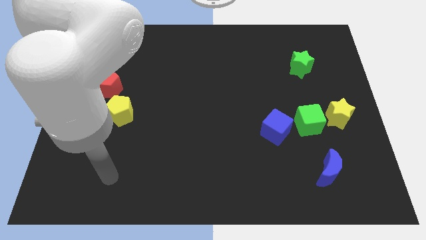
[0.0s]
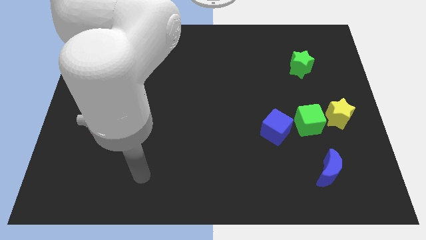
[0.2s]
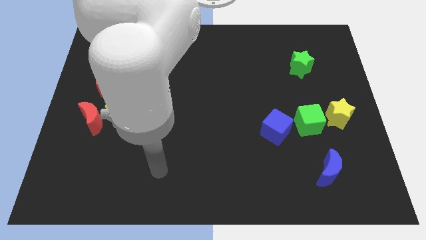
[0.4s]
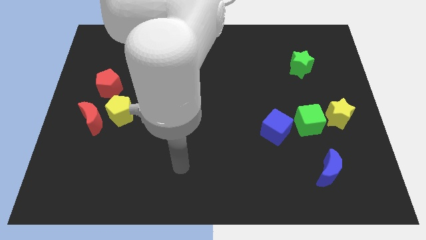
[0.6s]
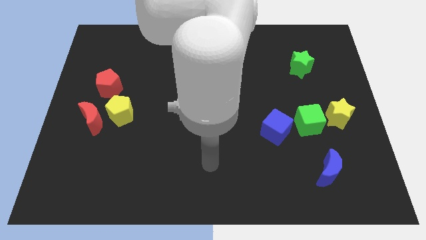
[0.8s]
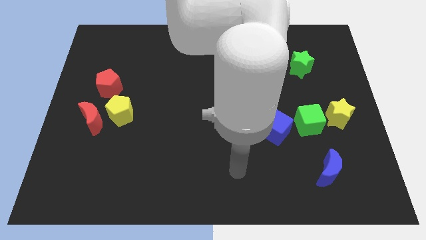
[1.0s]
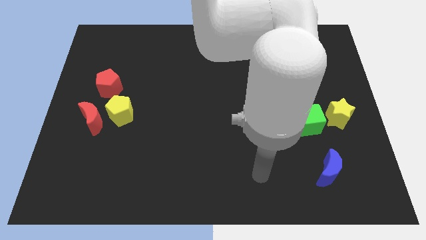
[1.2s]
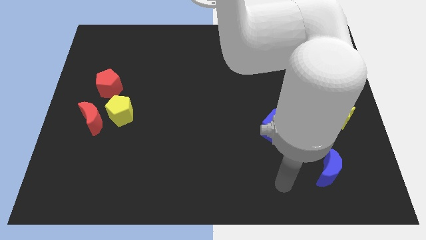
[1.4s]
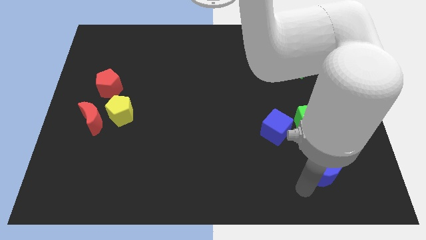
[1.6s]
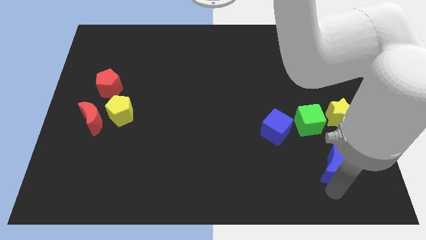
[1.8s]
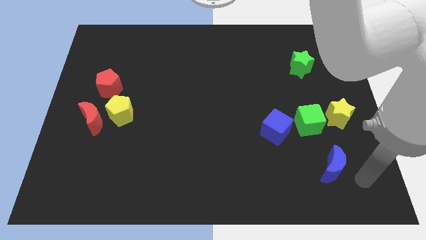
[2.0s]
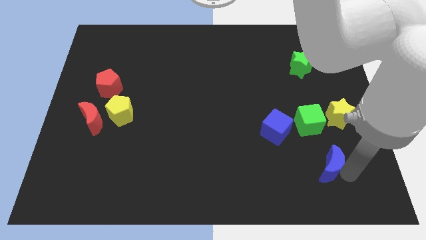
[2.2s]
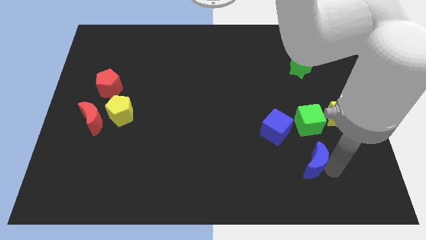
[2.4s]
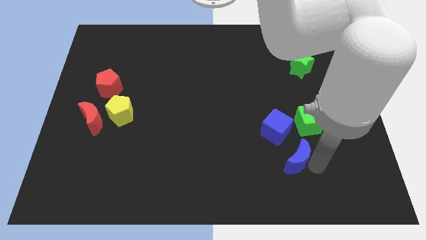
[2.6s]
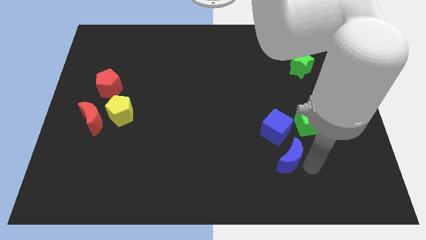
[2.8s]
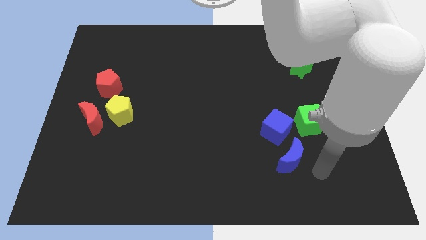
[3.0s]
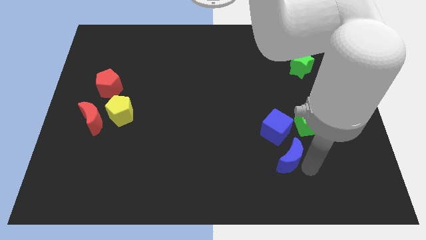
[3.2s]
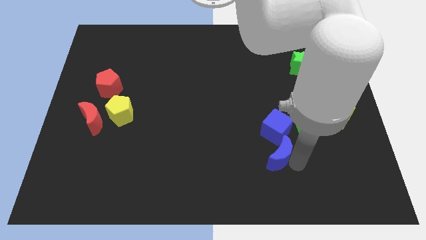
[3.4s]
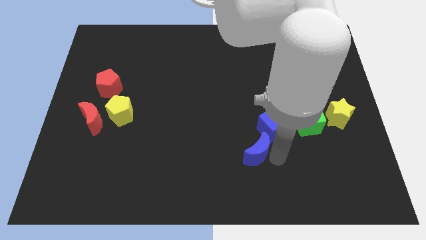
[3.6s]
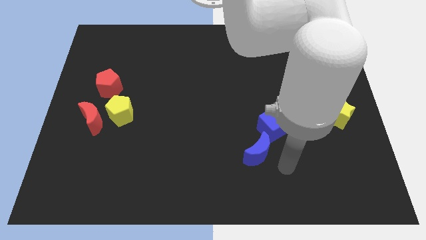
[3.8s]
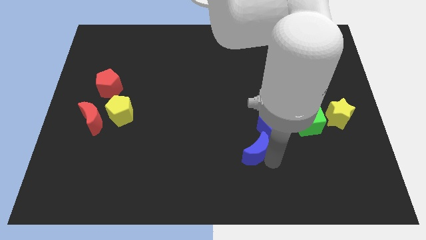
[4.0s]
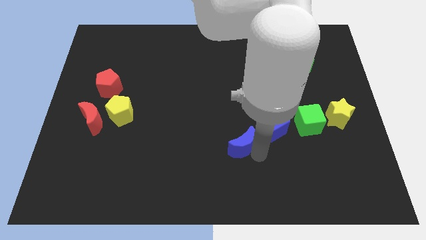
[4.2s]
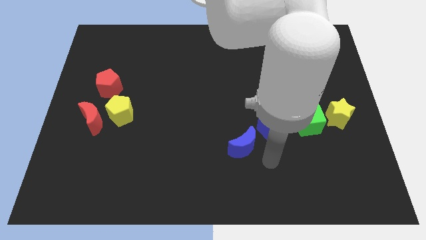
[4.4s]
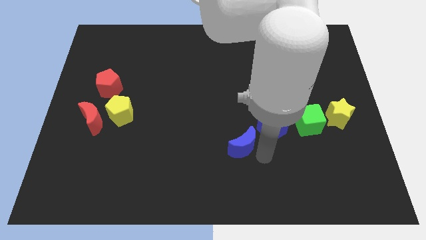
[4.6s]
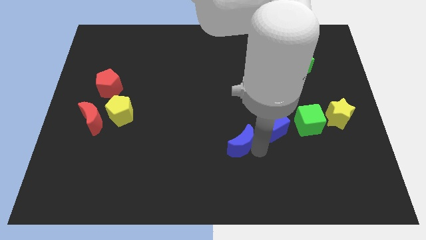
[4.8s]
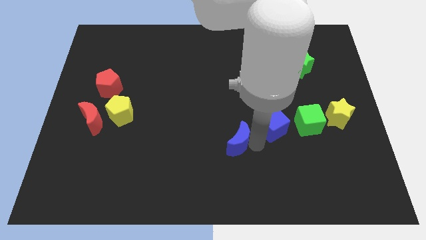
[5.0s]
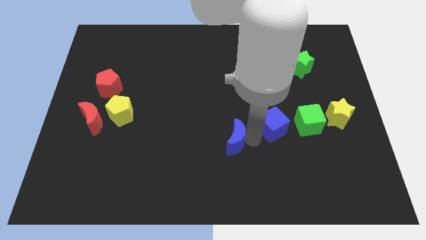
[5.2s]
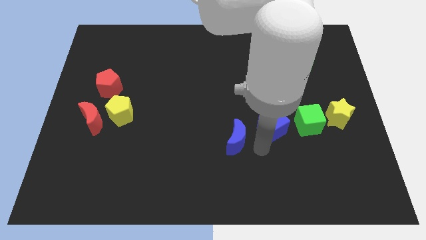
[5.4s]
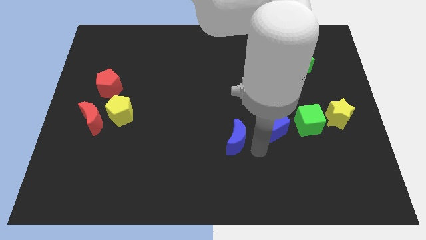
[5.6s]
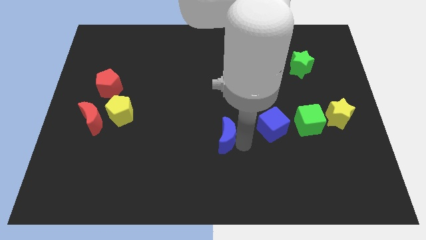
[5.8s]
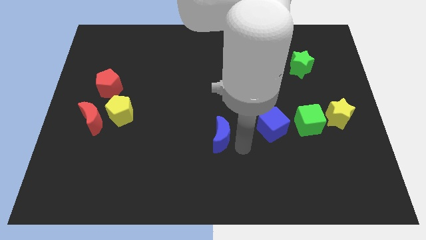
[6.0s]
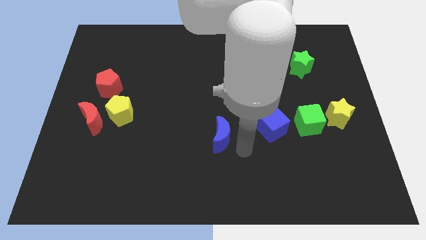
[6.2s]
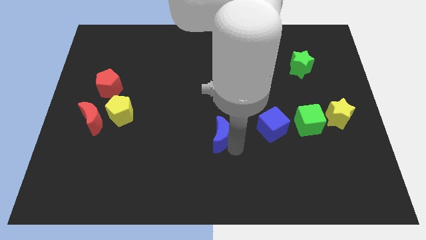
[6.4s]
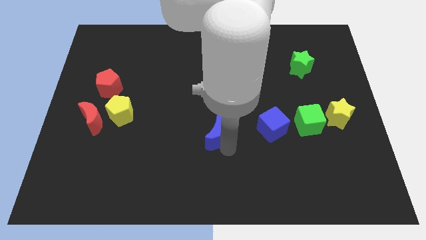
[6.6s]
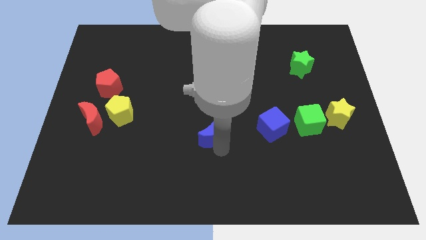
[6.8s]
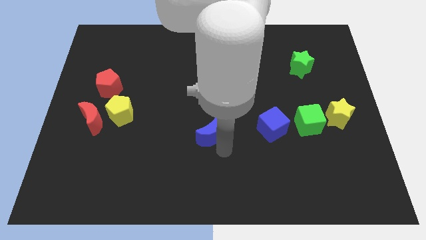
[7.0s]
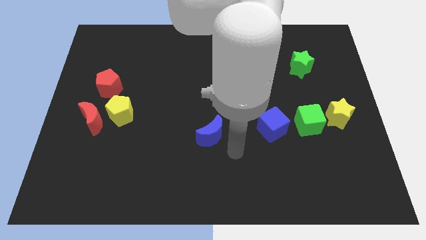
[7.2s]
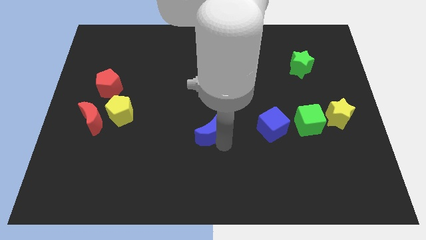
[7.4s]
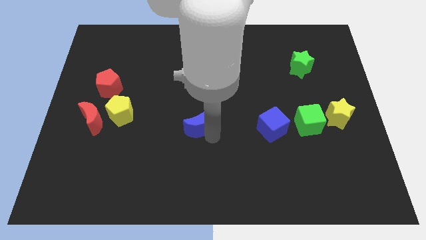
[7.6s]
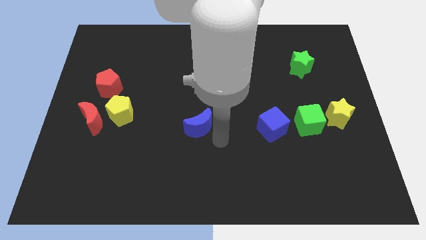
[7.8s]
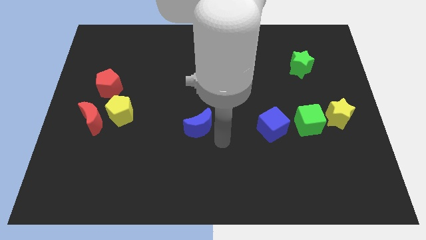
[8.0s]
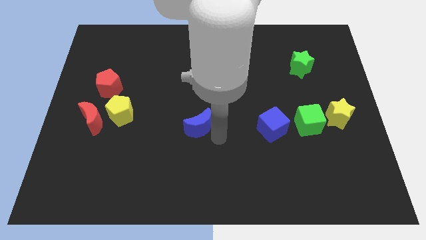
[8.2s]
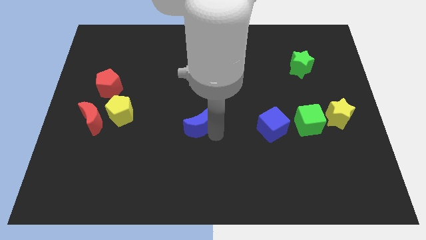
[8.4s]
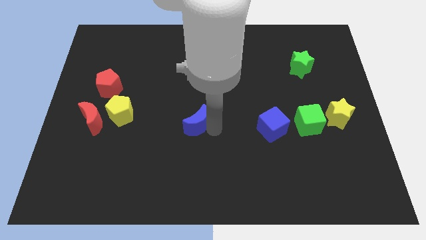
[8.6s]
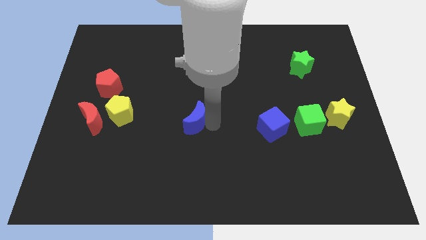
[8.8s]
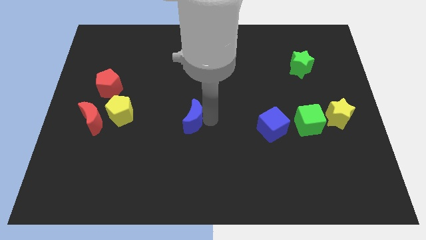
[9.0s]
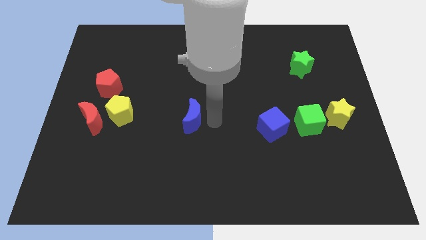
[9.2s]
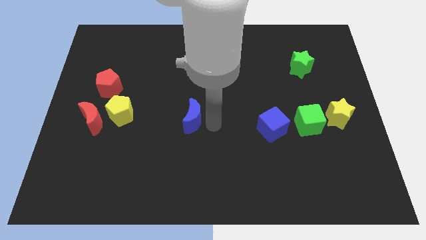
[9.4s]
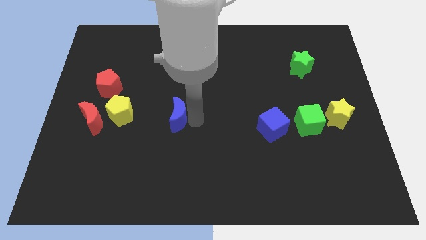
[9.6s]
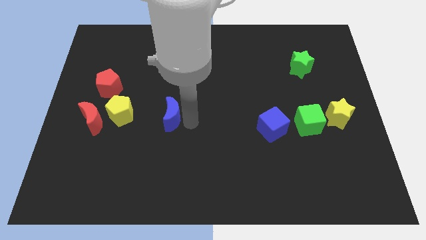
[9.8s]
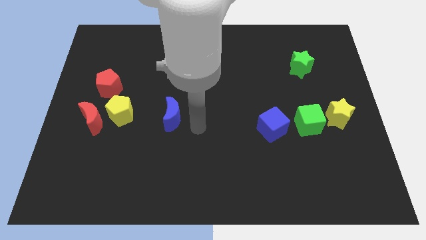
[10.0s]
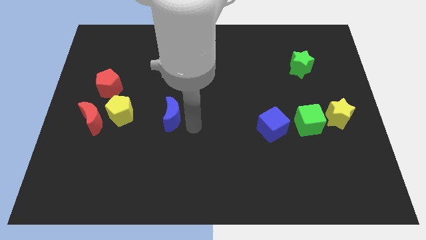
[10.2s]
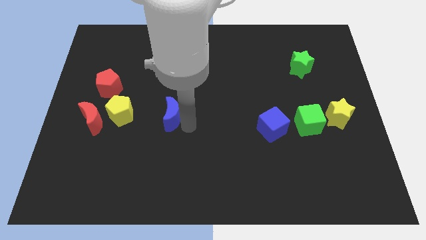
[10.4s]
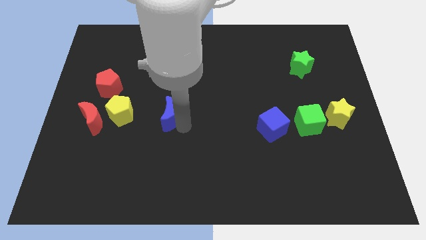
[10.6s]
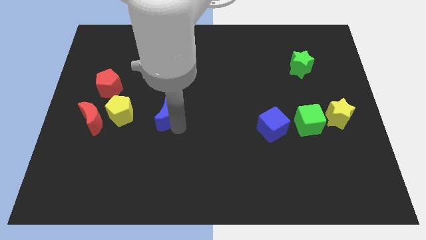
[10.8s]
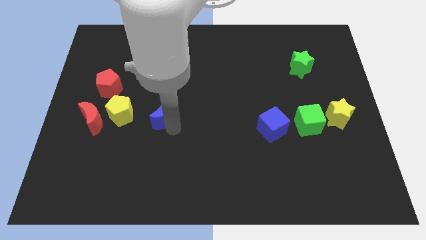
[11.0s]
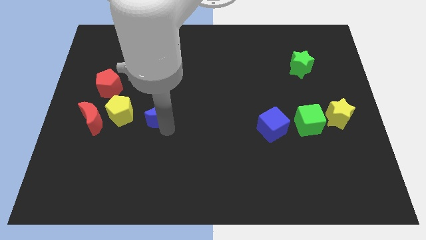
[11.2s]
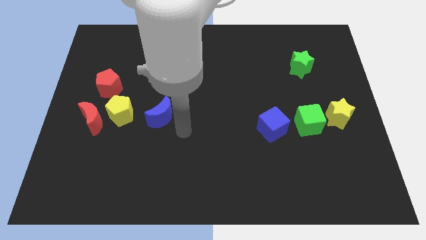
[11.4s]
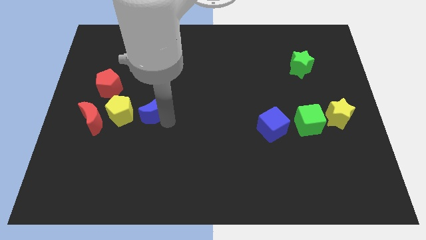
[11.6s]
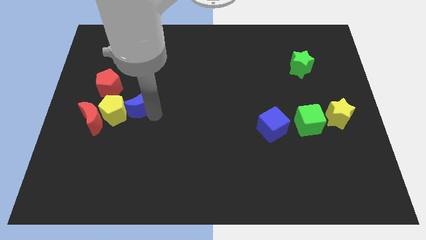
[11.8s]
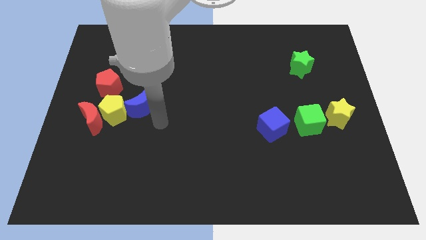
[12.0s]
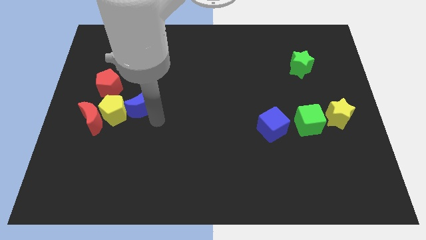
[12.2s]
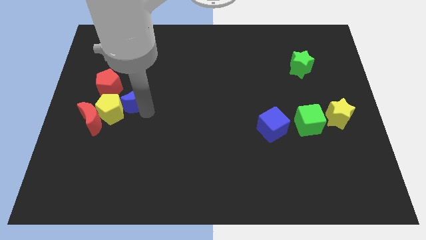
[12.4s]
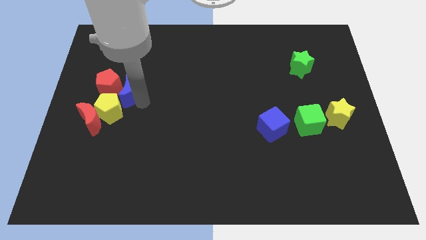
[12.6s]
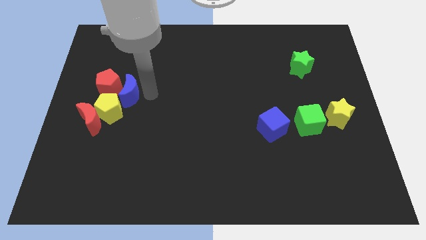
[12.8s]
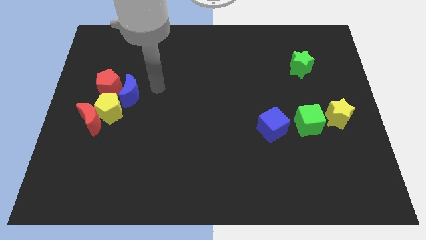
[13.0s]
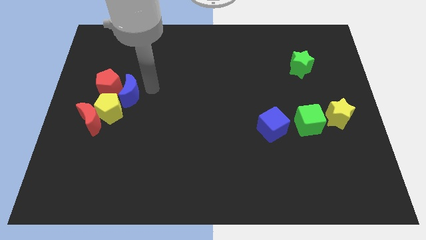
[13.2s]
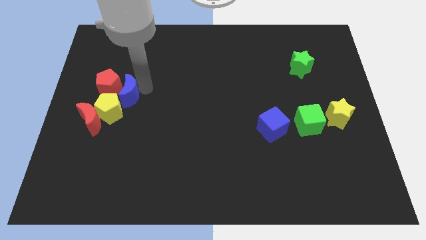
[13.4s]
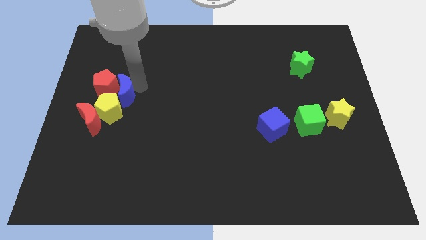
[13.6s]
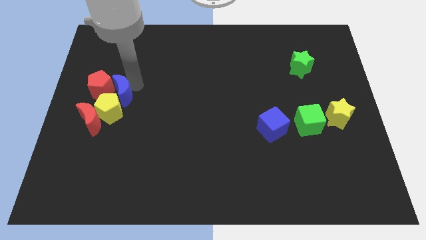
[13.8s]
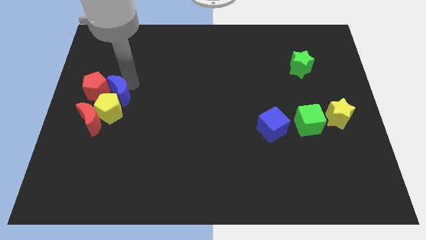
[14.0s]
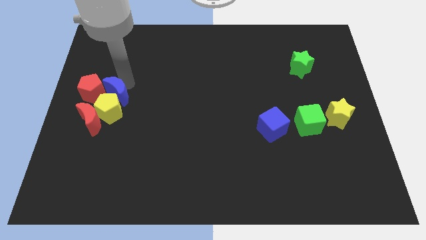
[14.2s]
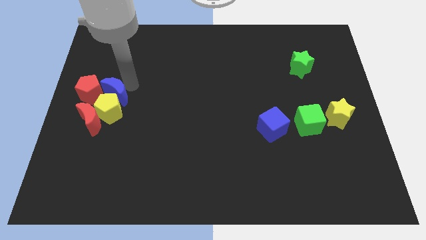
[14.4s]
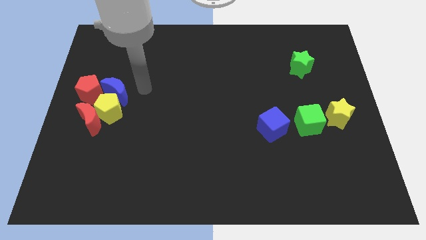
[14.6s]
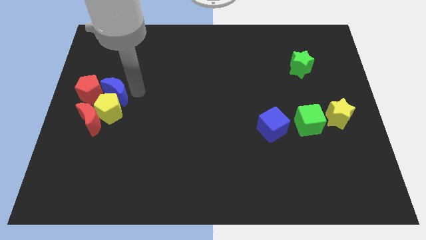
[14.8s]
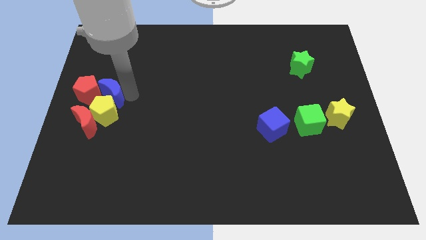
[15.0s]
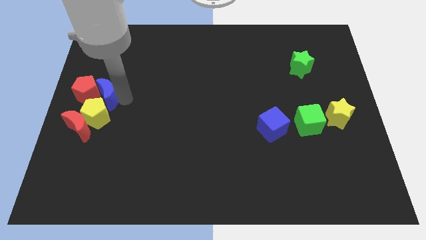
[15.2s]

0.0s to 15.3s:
move the blue moon to the left side of the board
